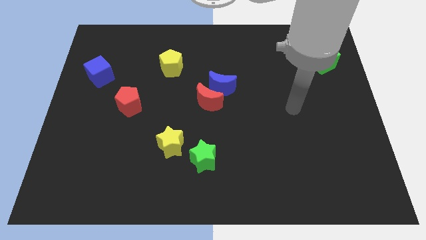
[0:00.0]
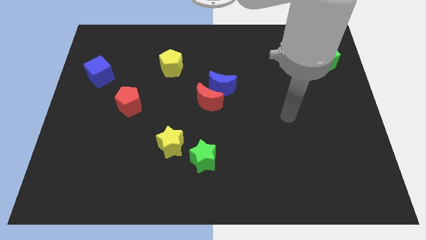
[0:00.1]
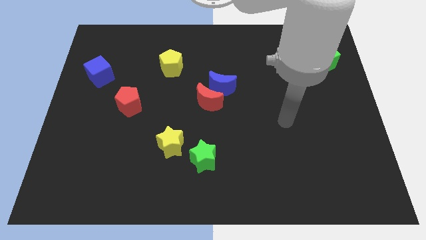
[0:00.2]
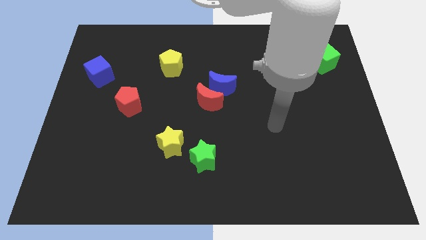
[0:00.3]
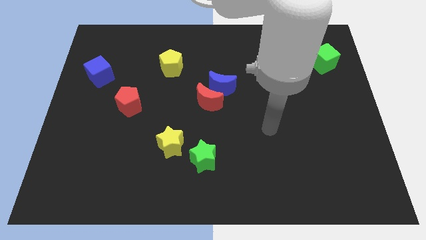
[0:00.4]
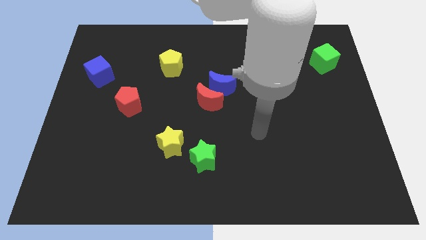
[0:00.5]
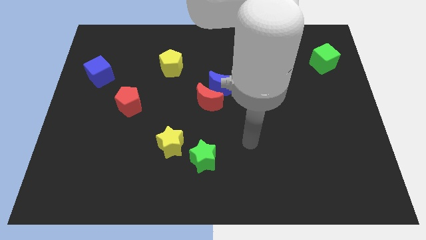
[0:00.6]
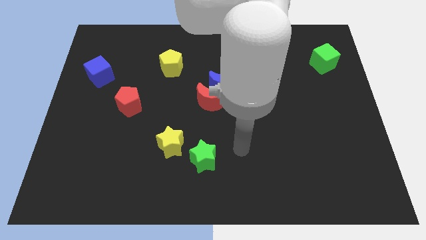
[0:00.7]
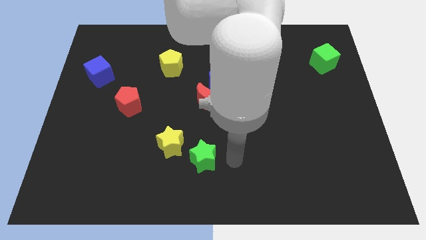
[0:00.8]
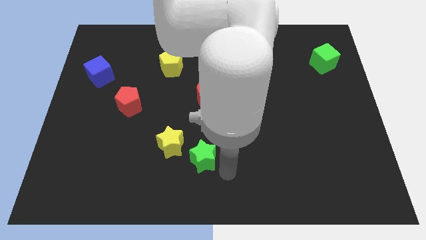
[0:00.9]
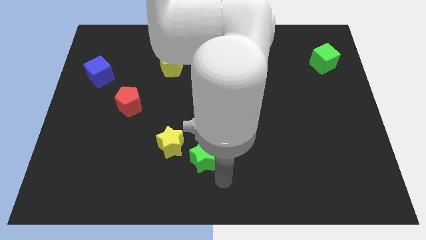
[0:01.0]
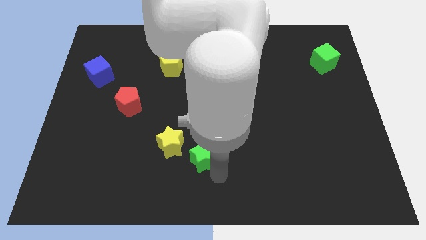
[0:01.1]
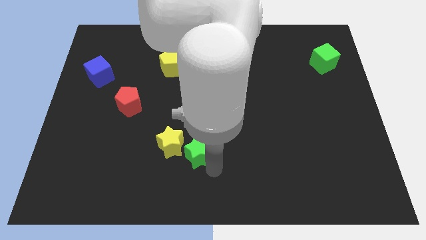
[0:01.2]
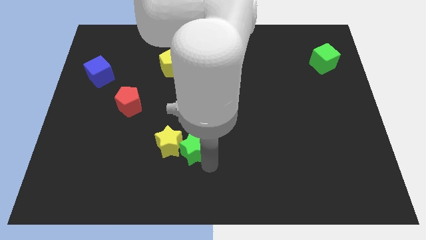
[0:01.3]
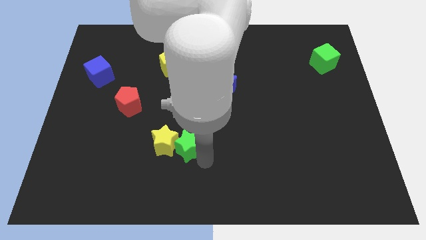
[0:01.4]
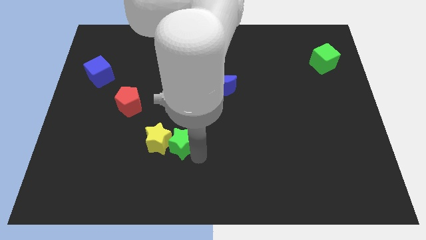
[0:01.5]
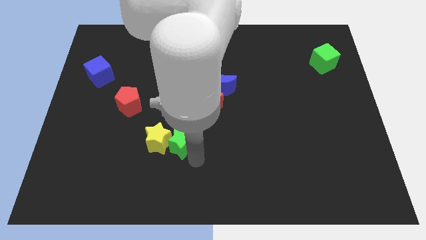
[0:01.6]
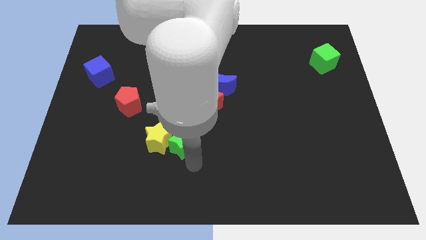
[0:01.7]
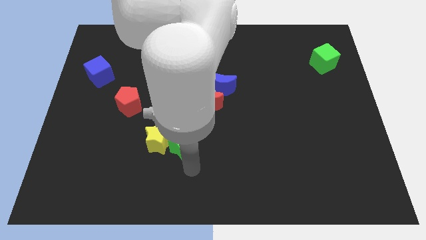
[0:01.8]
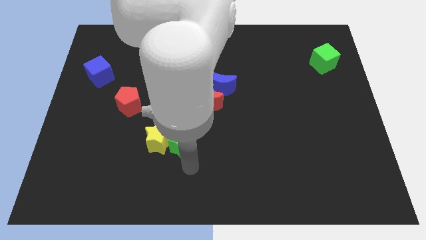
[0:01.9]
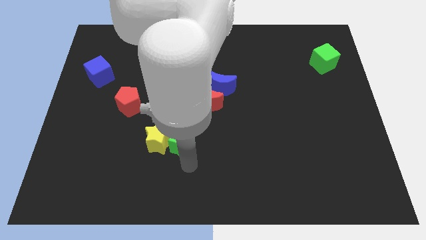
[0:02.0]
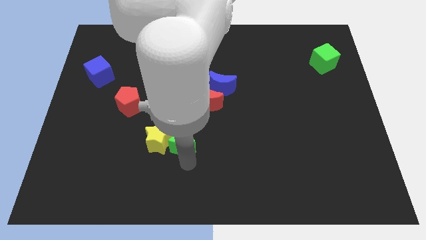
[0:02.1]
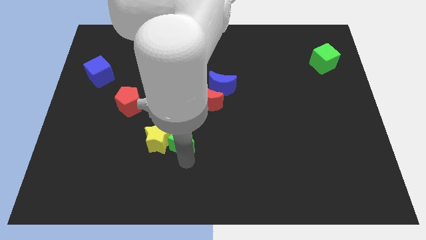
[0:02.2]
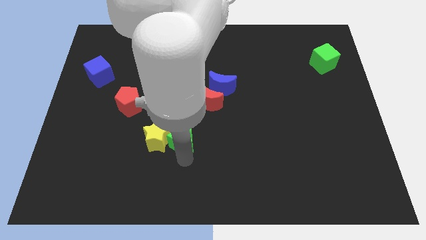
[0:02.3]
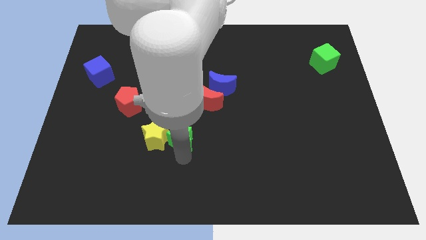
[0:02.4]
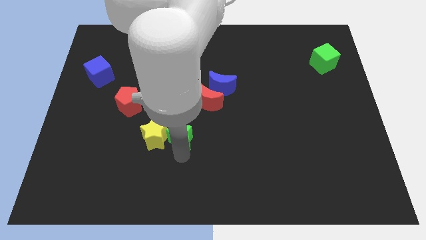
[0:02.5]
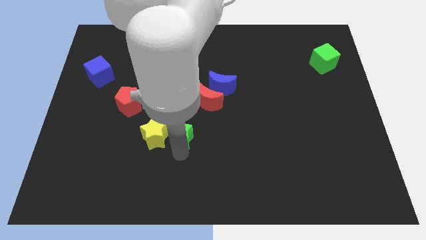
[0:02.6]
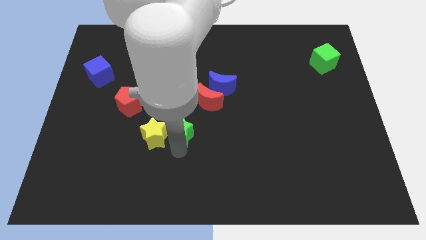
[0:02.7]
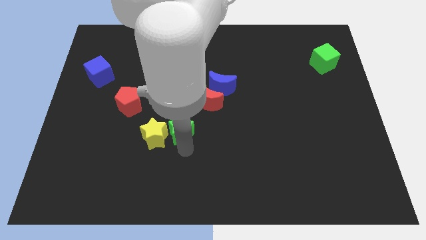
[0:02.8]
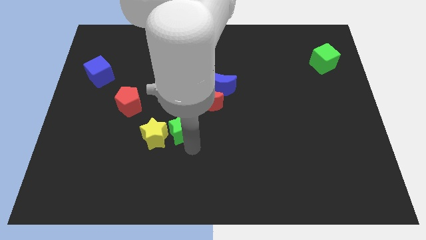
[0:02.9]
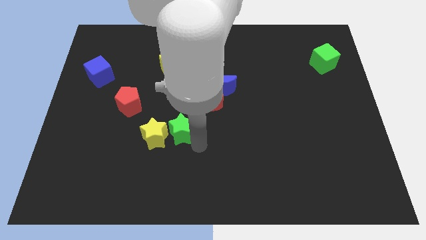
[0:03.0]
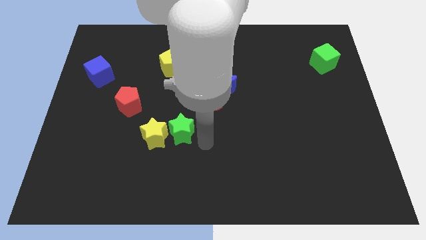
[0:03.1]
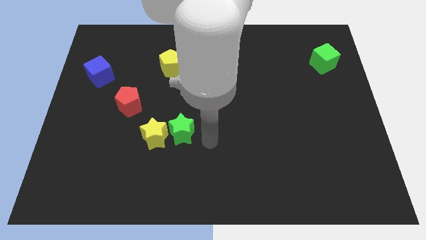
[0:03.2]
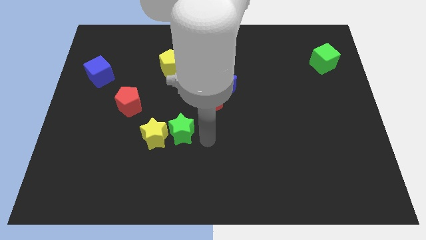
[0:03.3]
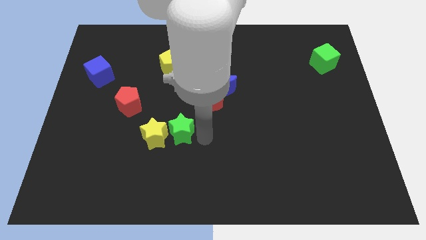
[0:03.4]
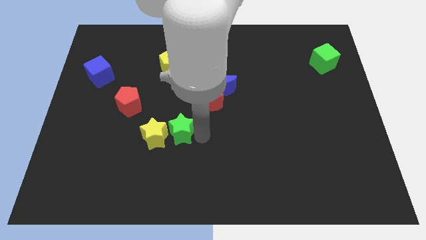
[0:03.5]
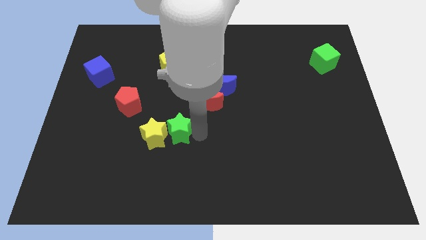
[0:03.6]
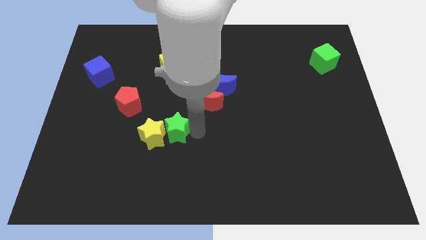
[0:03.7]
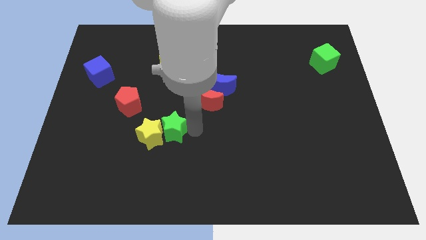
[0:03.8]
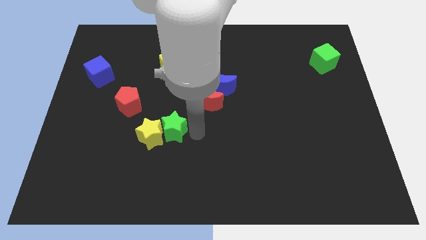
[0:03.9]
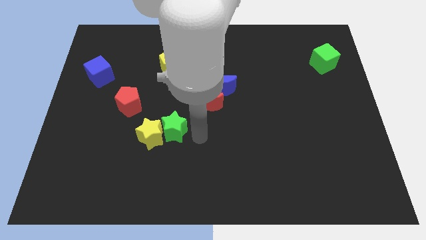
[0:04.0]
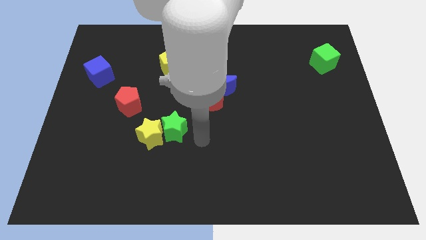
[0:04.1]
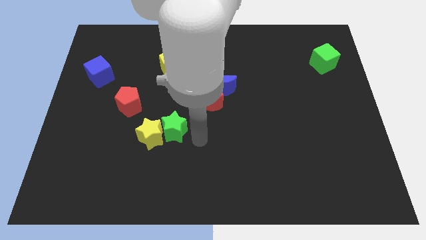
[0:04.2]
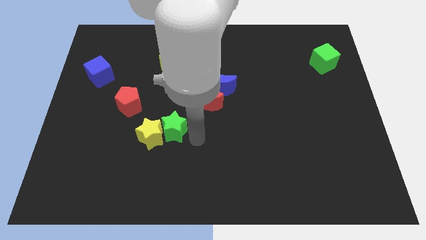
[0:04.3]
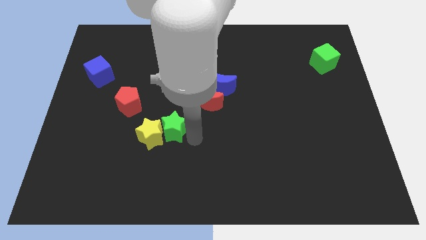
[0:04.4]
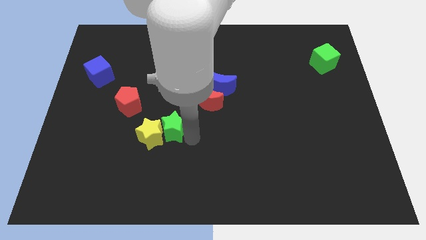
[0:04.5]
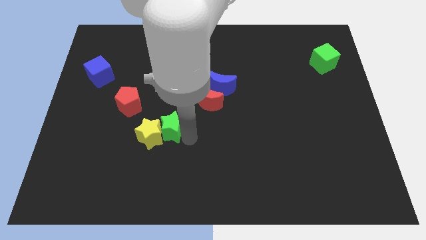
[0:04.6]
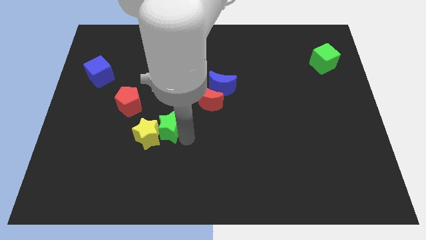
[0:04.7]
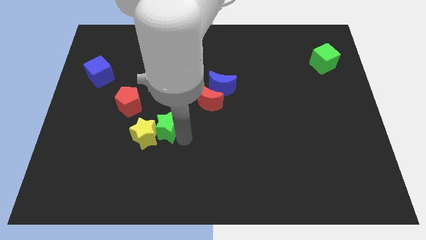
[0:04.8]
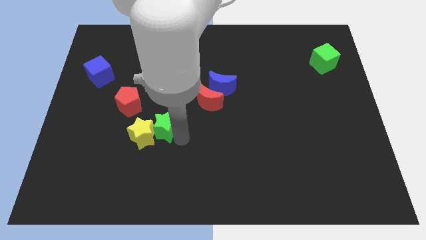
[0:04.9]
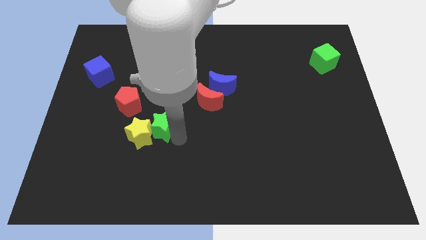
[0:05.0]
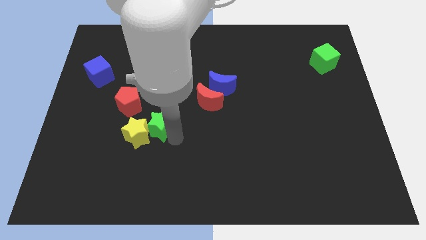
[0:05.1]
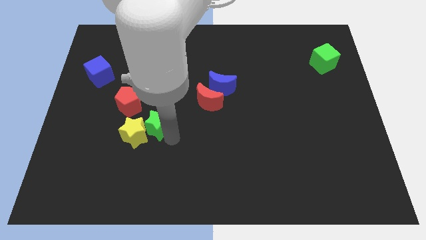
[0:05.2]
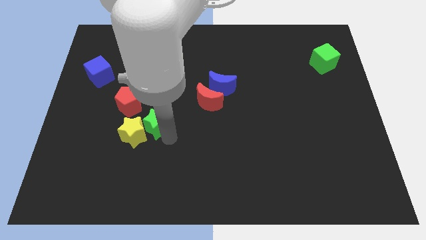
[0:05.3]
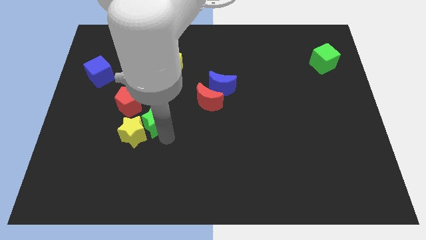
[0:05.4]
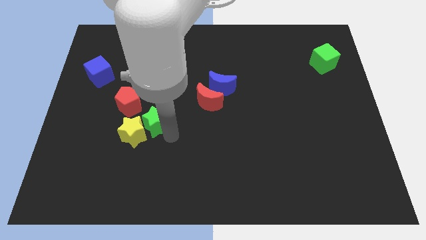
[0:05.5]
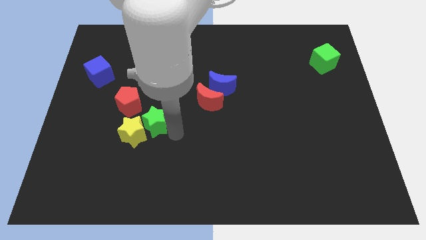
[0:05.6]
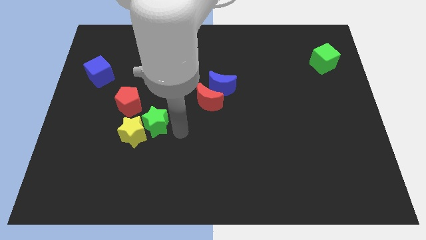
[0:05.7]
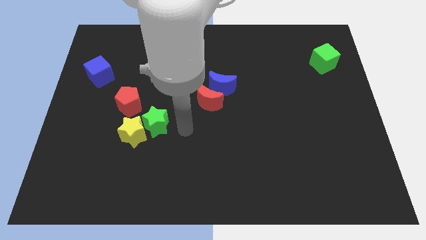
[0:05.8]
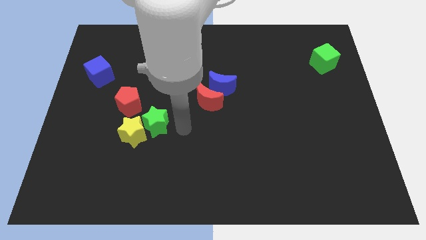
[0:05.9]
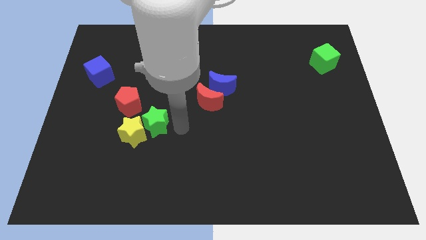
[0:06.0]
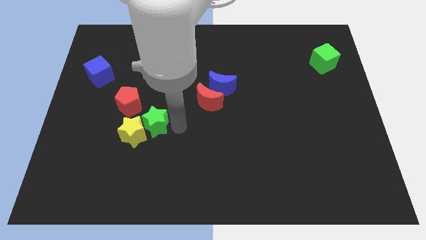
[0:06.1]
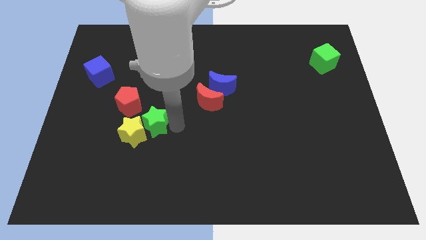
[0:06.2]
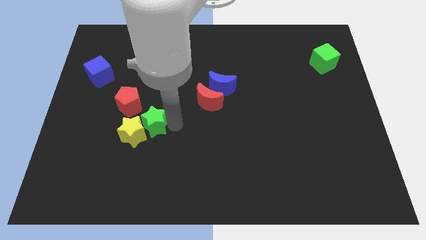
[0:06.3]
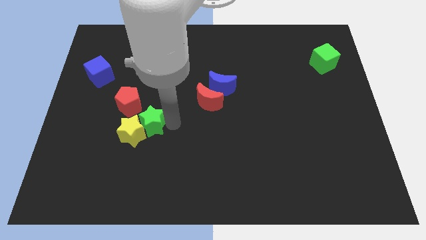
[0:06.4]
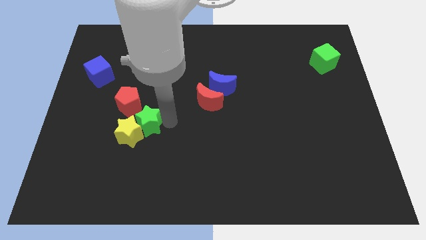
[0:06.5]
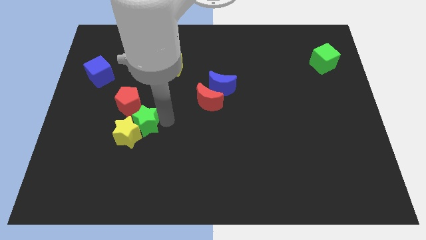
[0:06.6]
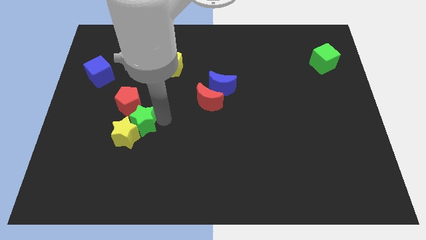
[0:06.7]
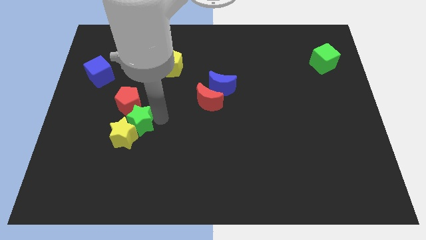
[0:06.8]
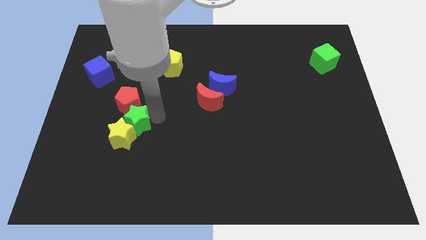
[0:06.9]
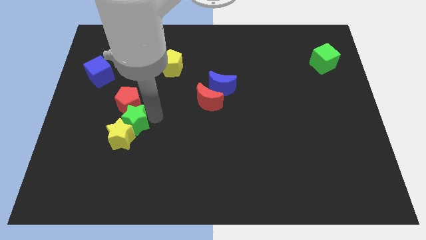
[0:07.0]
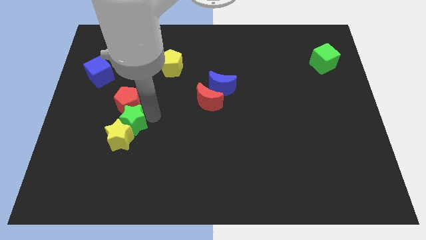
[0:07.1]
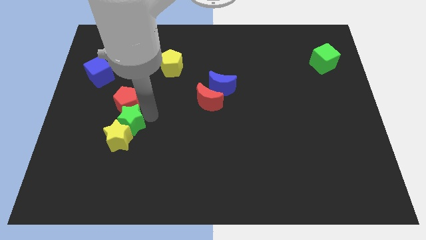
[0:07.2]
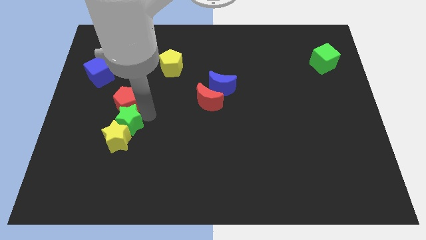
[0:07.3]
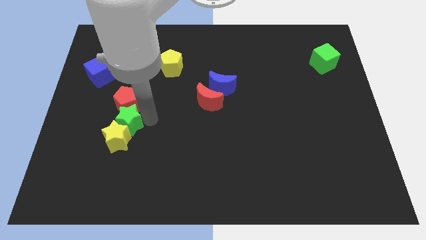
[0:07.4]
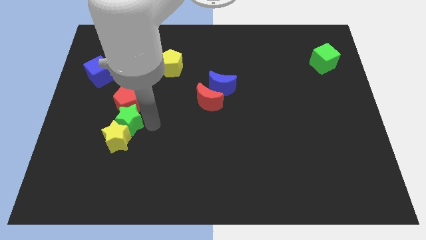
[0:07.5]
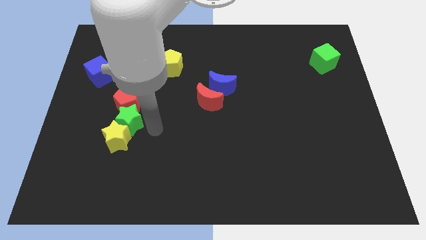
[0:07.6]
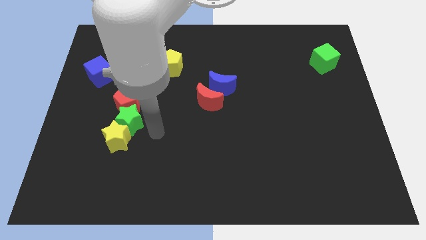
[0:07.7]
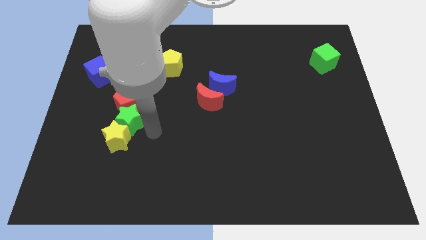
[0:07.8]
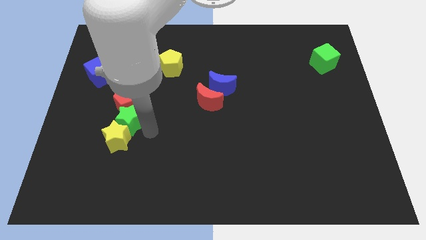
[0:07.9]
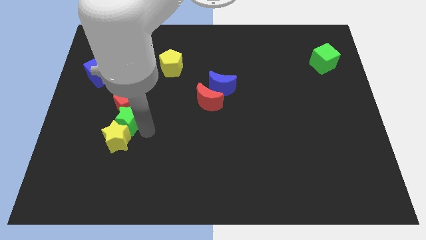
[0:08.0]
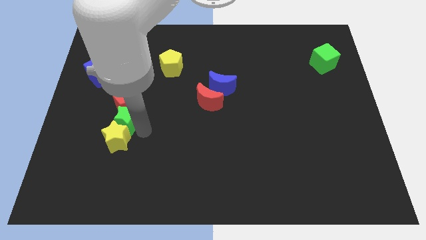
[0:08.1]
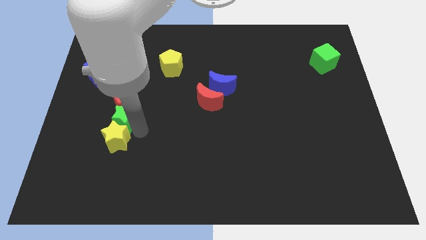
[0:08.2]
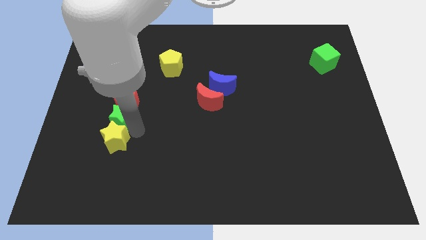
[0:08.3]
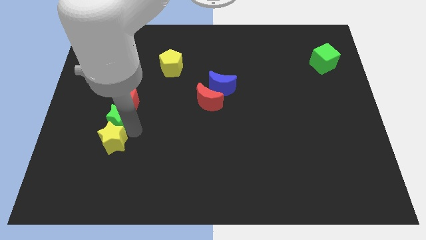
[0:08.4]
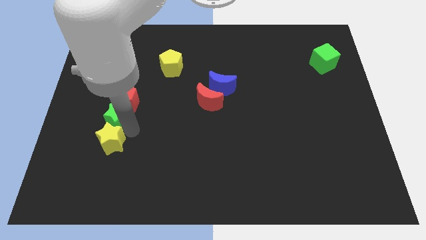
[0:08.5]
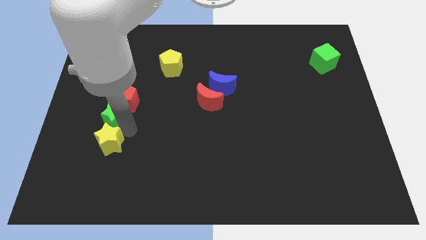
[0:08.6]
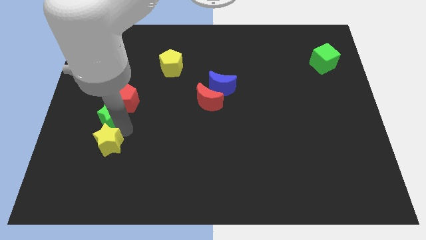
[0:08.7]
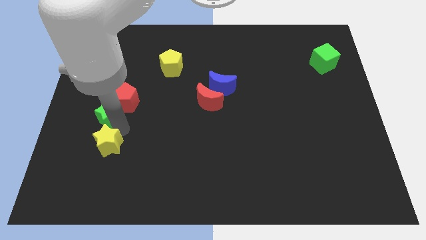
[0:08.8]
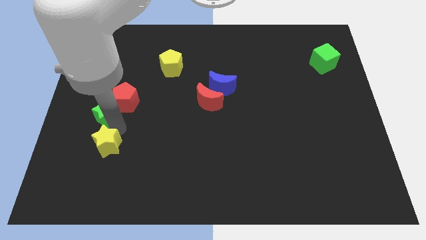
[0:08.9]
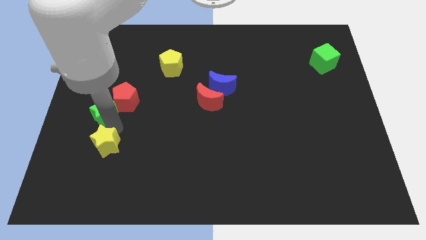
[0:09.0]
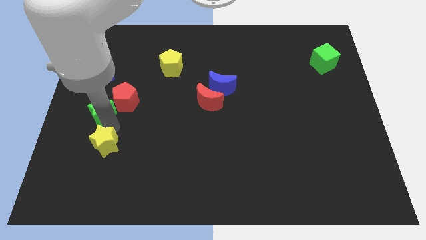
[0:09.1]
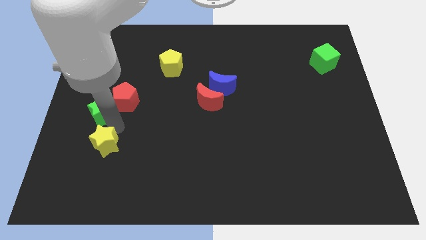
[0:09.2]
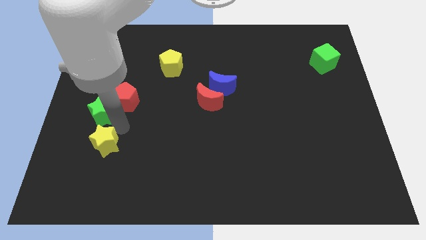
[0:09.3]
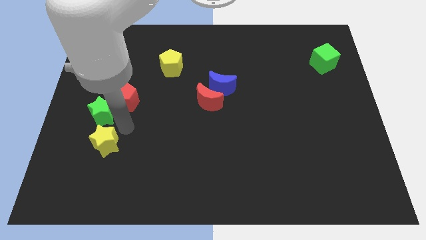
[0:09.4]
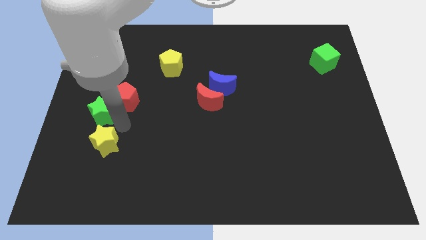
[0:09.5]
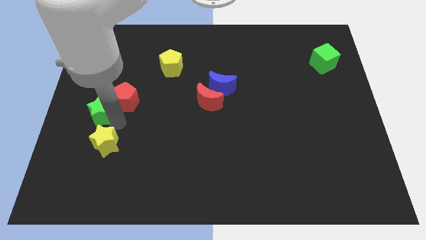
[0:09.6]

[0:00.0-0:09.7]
move the green star to the left side
